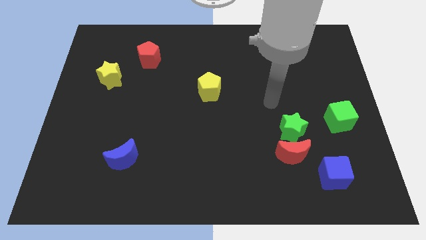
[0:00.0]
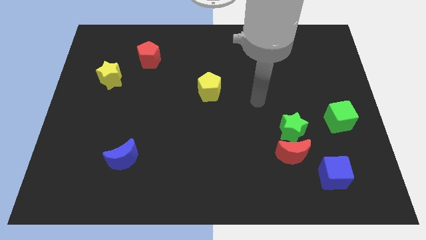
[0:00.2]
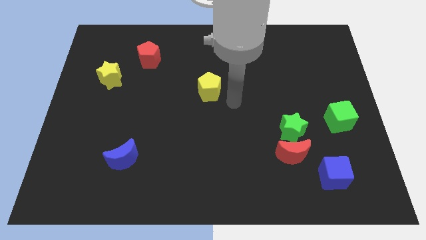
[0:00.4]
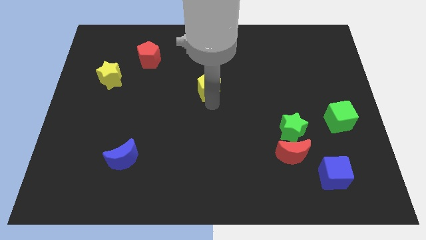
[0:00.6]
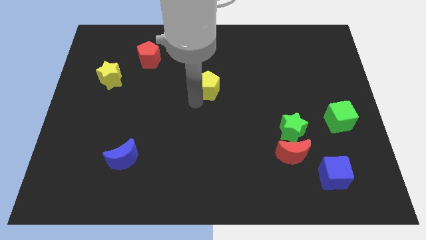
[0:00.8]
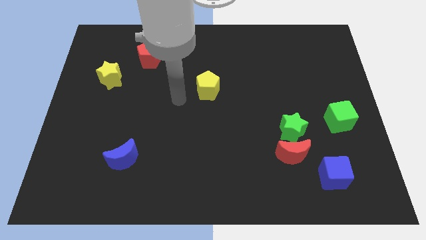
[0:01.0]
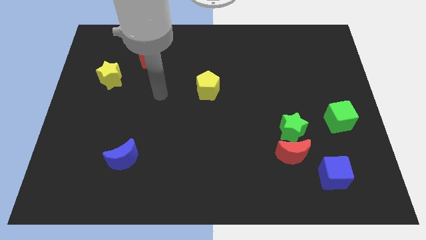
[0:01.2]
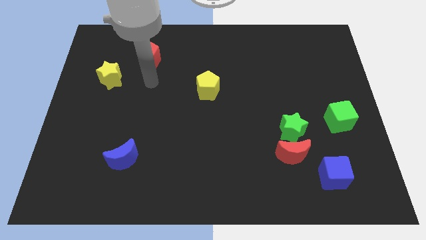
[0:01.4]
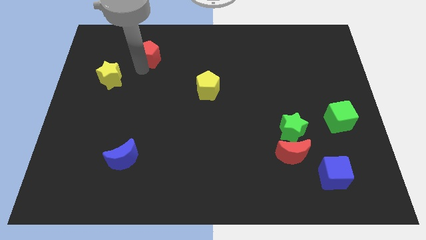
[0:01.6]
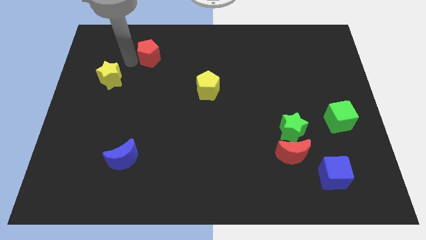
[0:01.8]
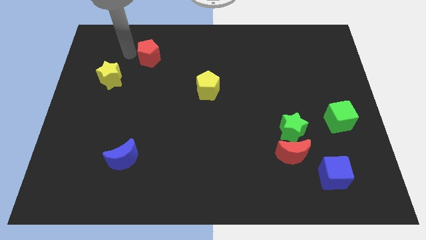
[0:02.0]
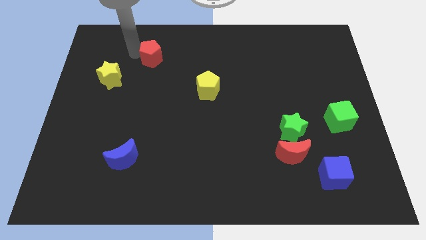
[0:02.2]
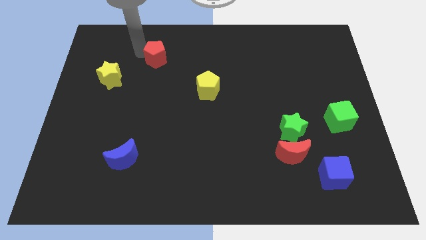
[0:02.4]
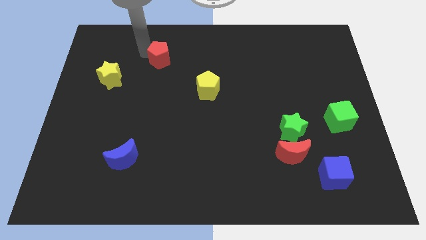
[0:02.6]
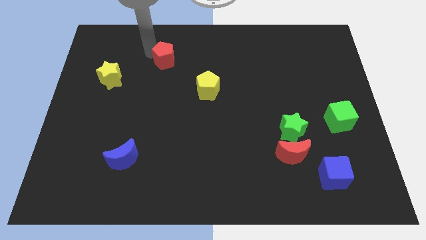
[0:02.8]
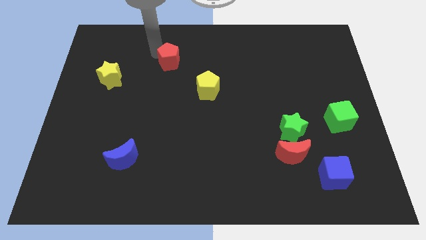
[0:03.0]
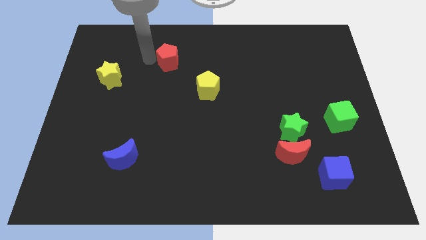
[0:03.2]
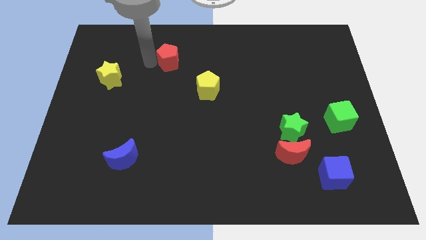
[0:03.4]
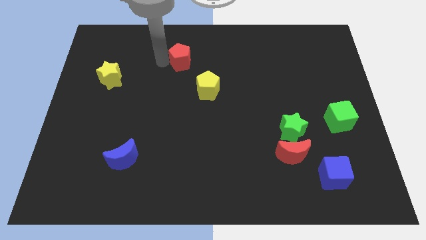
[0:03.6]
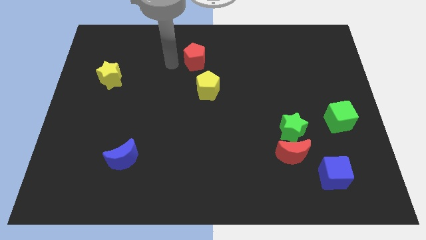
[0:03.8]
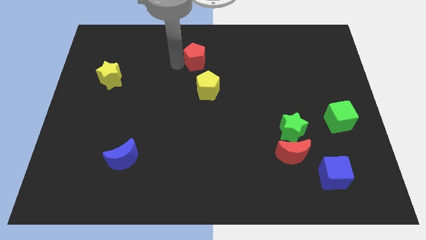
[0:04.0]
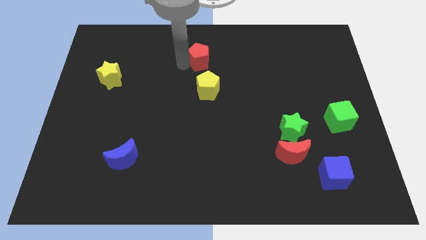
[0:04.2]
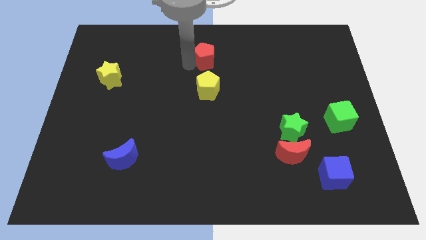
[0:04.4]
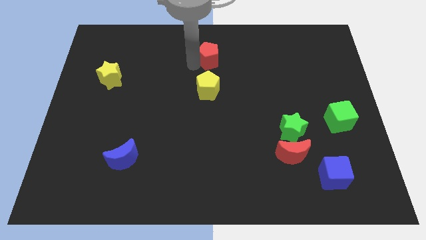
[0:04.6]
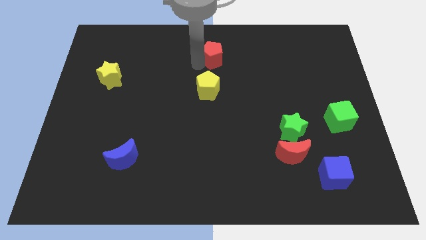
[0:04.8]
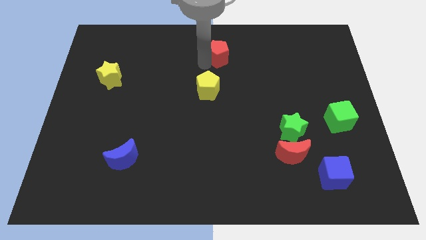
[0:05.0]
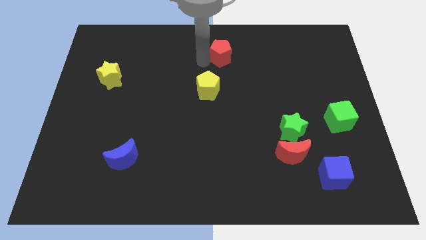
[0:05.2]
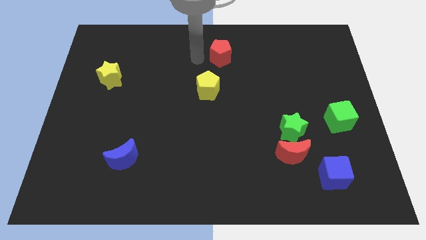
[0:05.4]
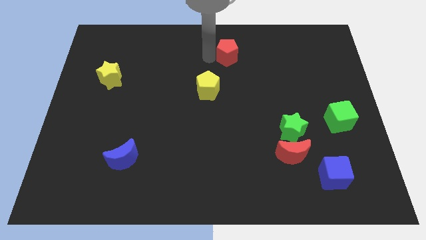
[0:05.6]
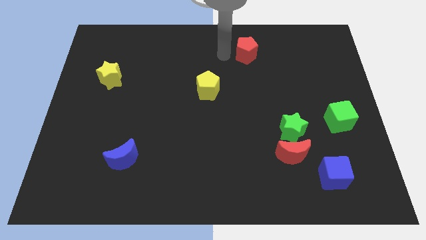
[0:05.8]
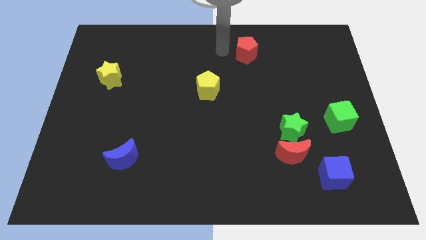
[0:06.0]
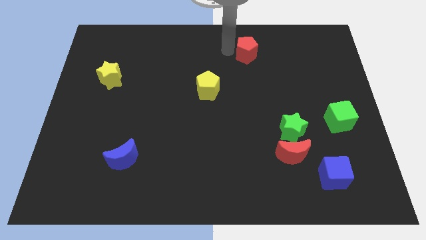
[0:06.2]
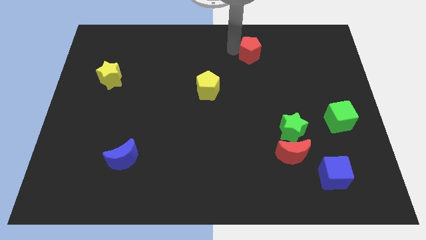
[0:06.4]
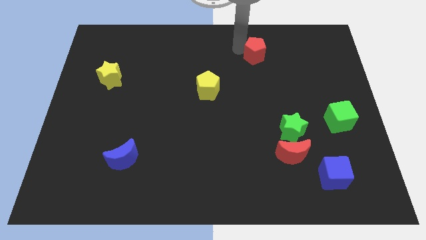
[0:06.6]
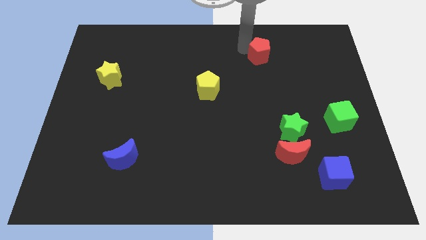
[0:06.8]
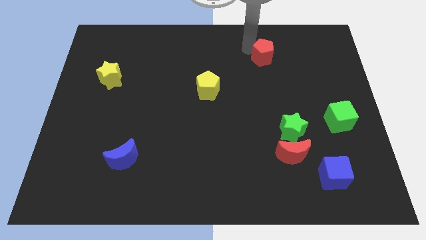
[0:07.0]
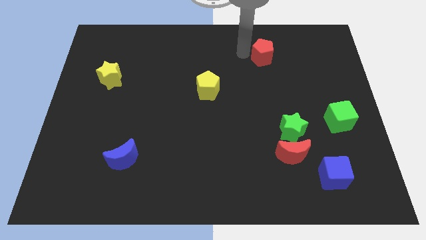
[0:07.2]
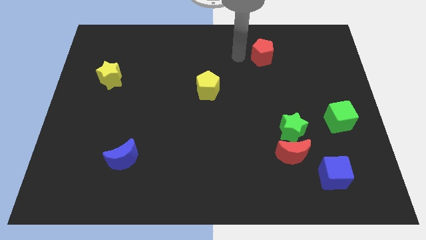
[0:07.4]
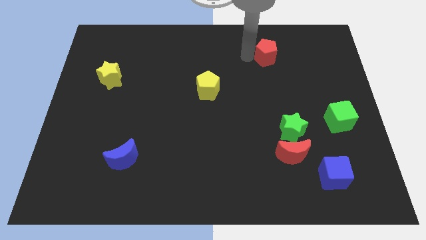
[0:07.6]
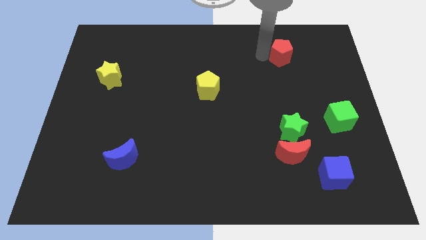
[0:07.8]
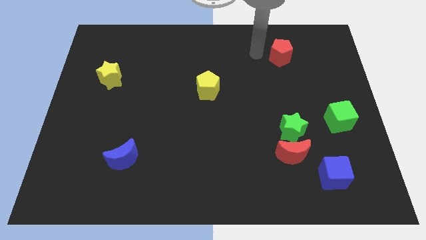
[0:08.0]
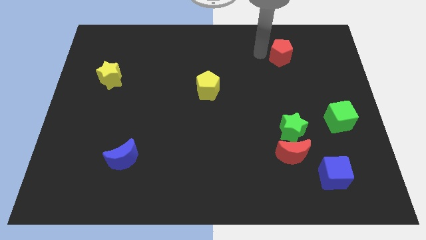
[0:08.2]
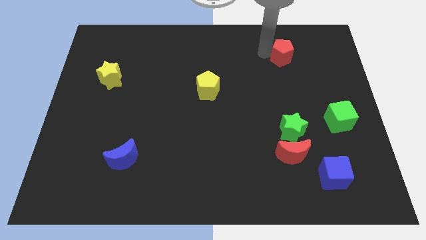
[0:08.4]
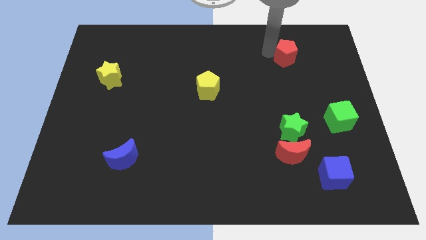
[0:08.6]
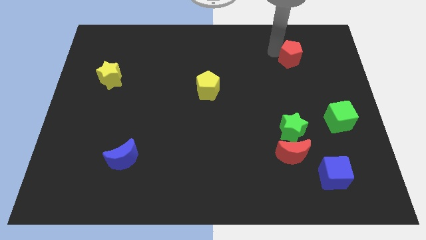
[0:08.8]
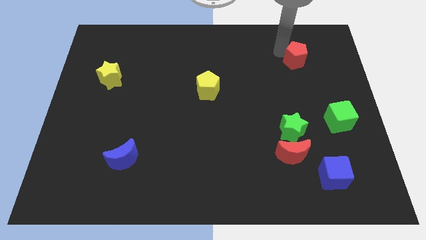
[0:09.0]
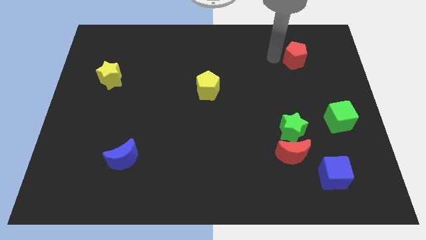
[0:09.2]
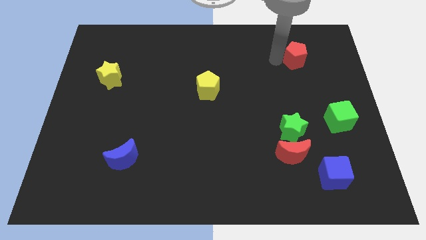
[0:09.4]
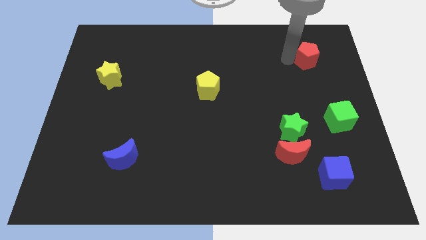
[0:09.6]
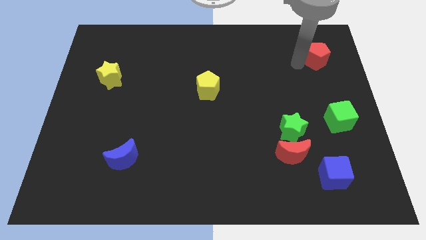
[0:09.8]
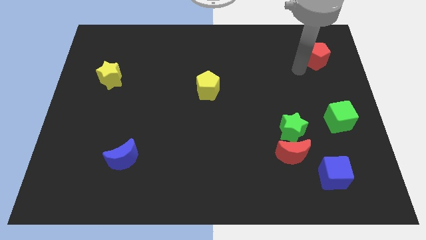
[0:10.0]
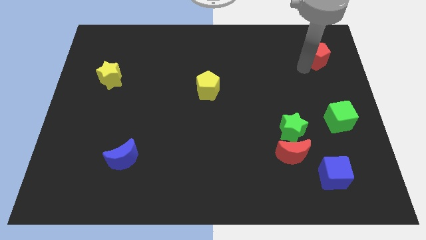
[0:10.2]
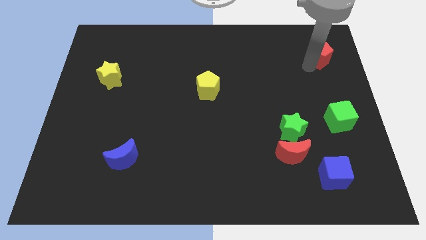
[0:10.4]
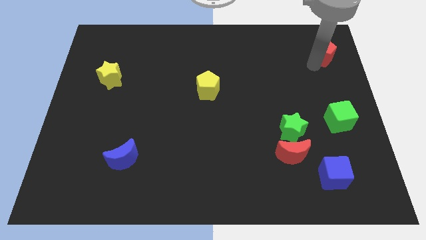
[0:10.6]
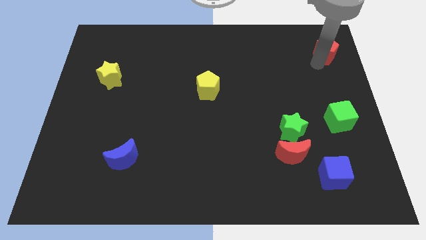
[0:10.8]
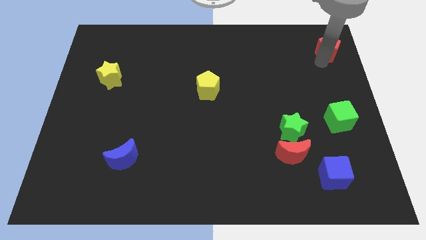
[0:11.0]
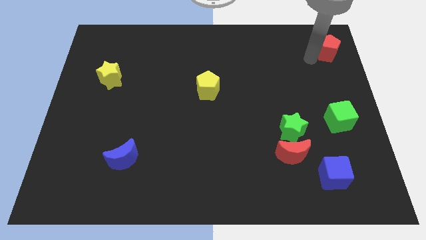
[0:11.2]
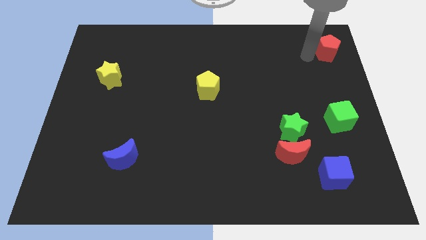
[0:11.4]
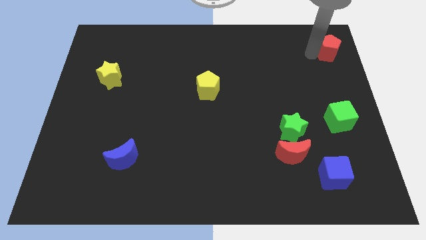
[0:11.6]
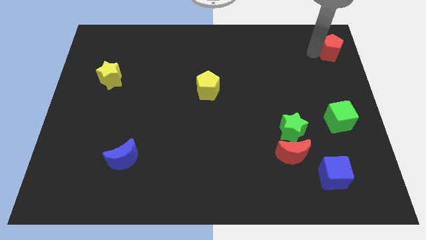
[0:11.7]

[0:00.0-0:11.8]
slide the red pentagon to the top right of the board
